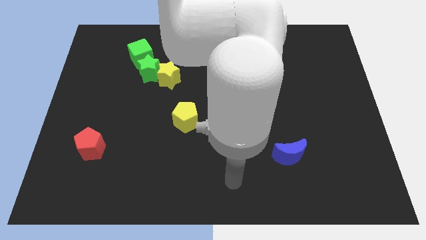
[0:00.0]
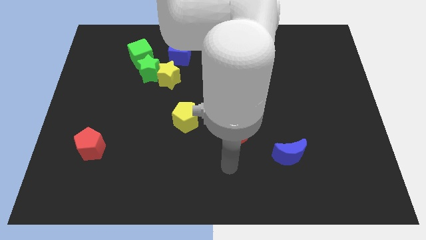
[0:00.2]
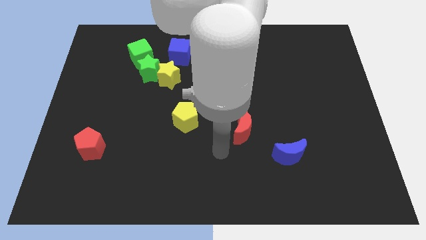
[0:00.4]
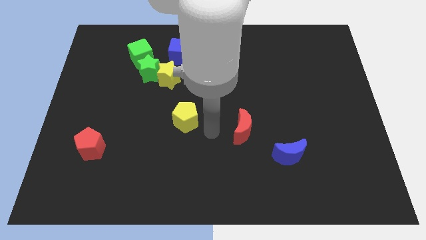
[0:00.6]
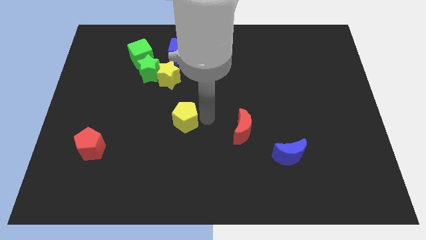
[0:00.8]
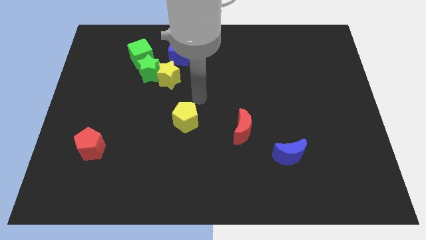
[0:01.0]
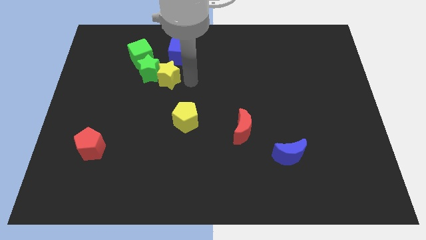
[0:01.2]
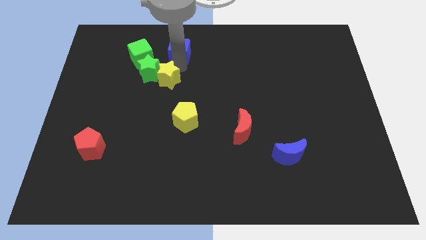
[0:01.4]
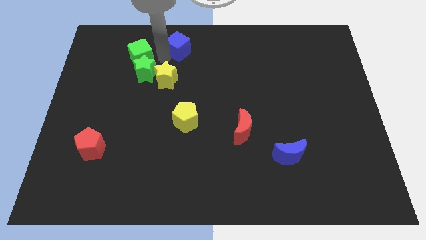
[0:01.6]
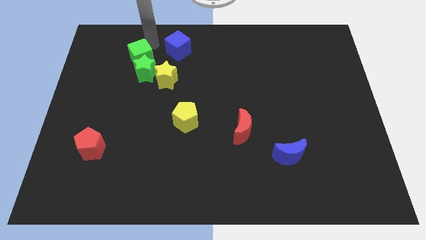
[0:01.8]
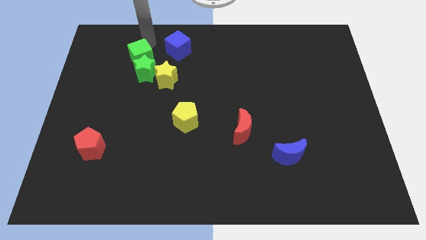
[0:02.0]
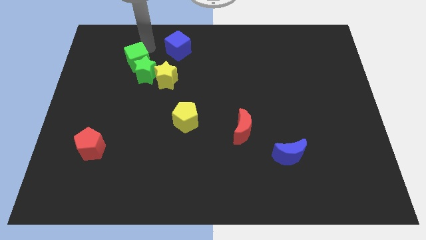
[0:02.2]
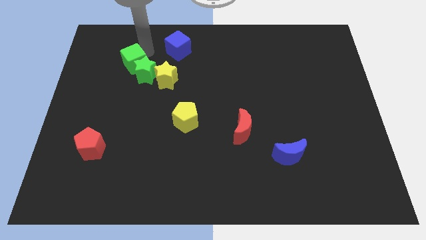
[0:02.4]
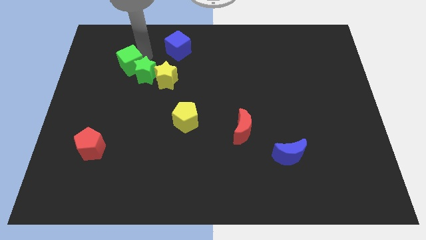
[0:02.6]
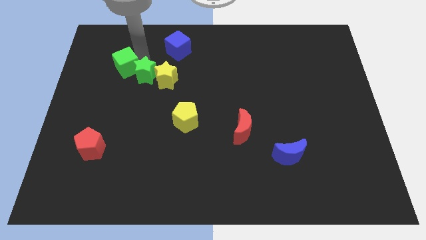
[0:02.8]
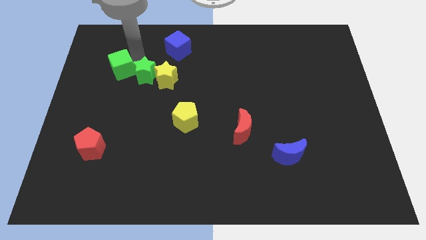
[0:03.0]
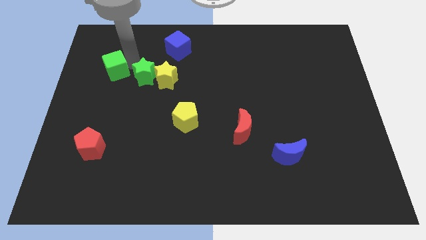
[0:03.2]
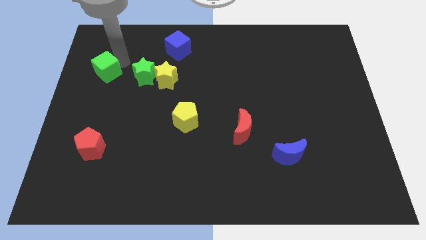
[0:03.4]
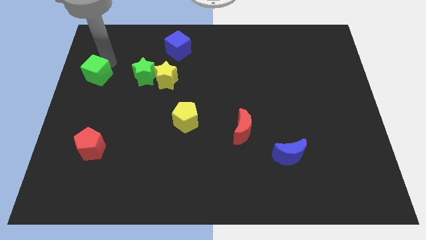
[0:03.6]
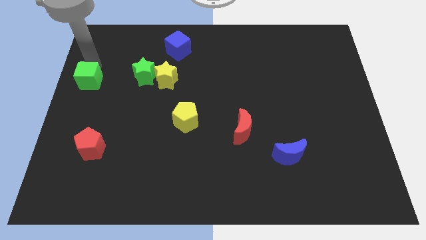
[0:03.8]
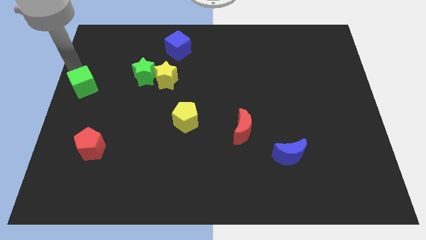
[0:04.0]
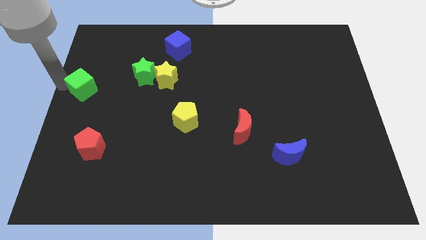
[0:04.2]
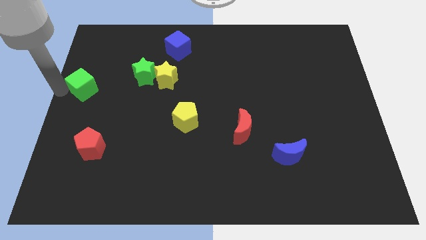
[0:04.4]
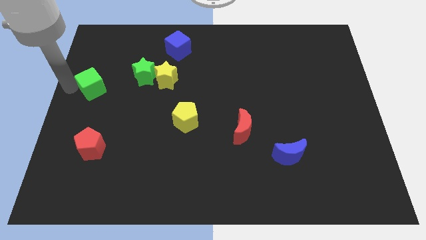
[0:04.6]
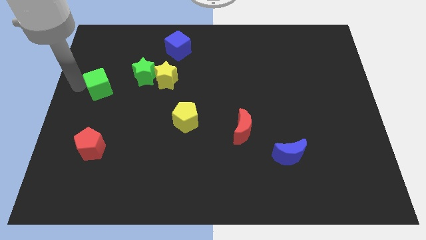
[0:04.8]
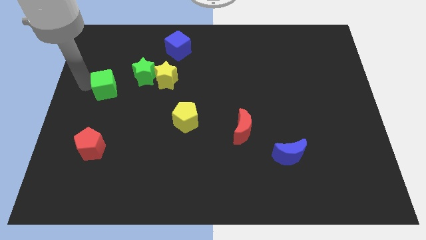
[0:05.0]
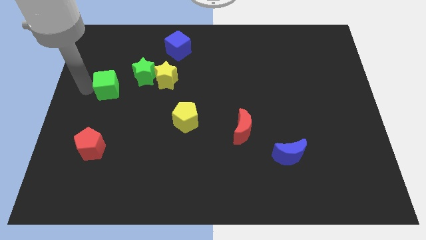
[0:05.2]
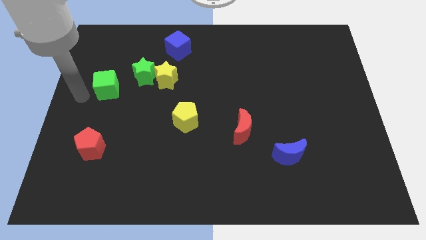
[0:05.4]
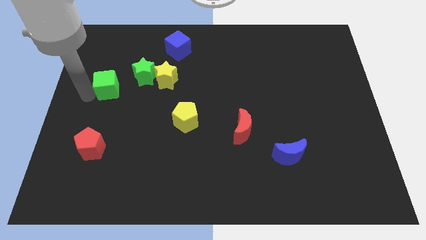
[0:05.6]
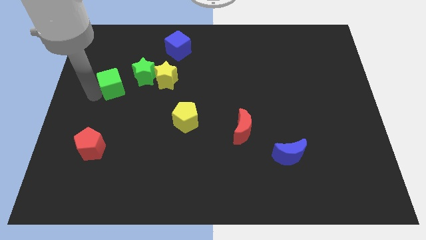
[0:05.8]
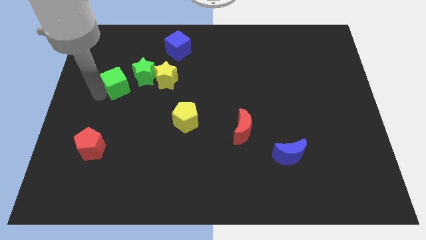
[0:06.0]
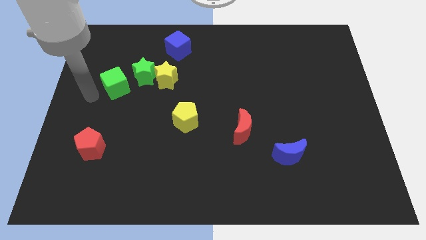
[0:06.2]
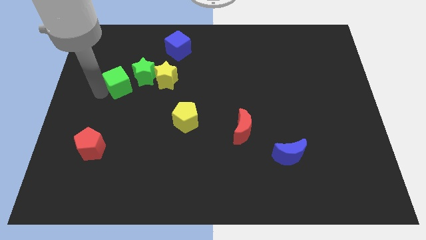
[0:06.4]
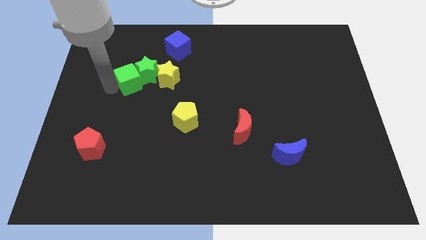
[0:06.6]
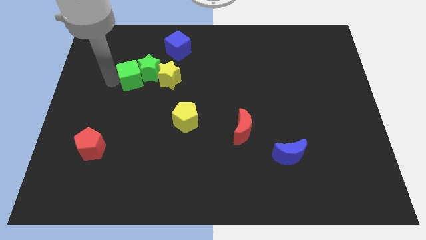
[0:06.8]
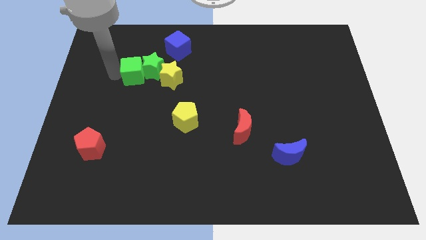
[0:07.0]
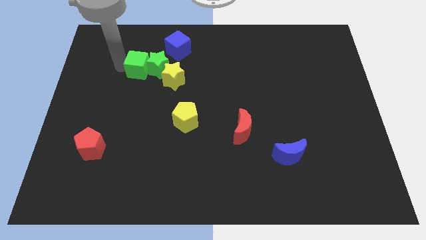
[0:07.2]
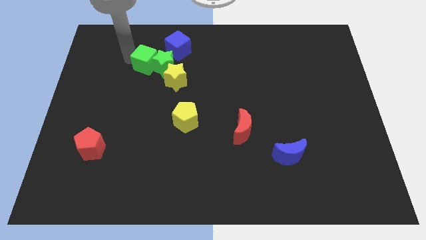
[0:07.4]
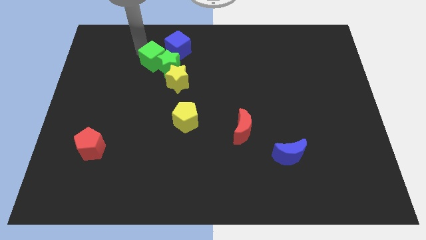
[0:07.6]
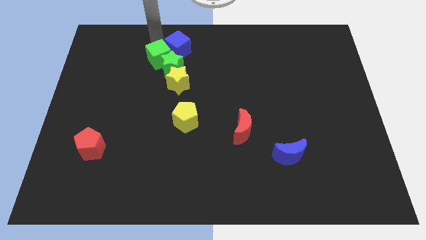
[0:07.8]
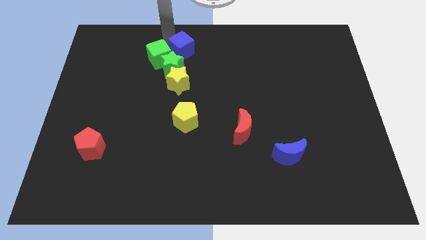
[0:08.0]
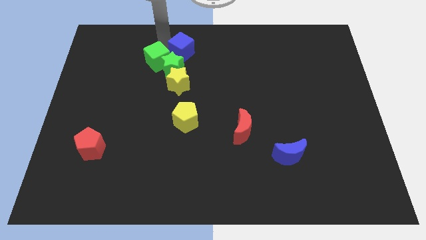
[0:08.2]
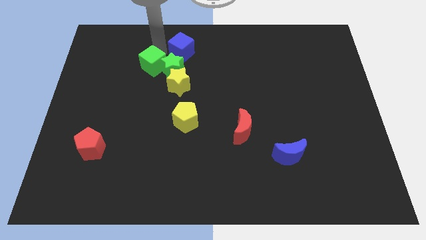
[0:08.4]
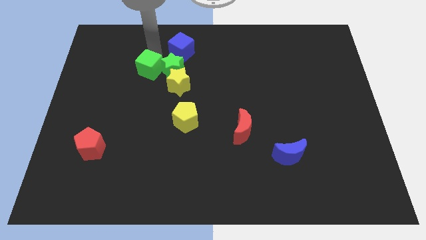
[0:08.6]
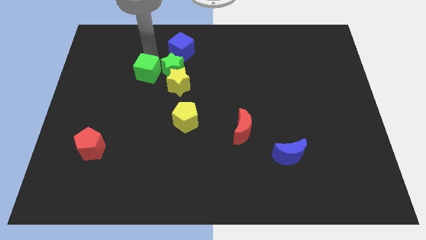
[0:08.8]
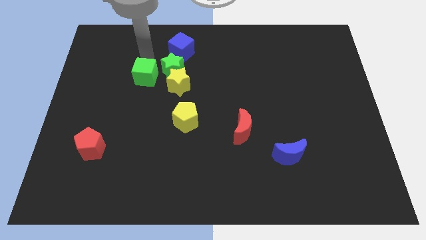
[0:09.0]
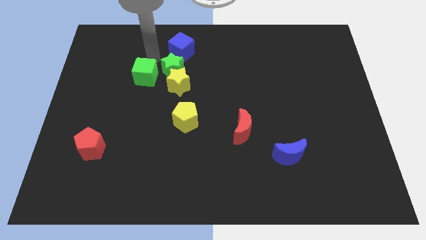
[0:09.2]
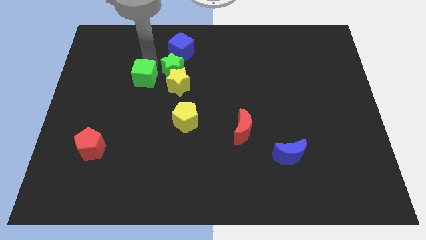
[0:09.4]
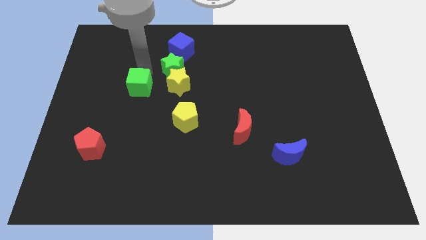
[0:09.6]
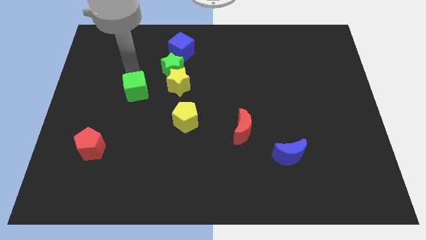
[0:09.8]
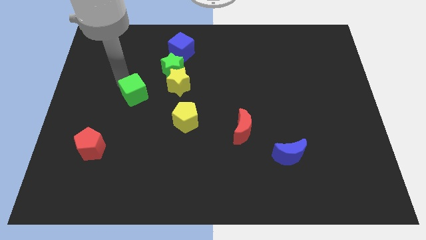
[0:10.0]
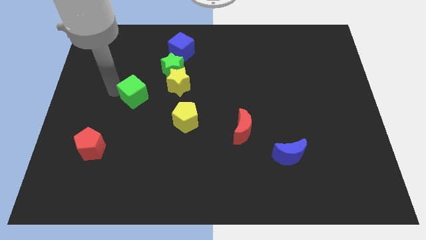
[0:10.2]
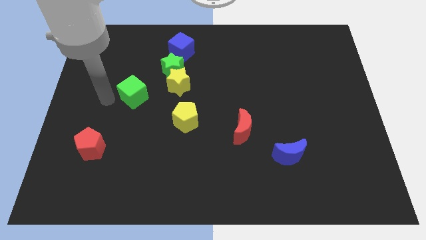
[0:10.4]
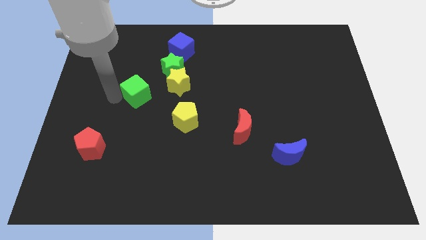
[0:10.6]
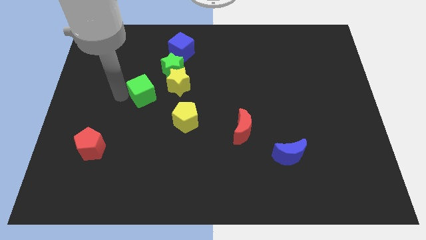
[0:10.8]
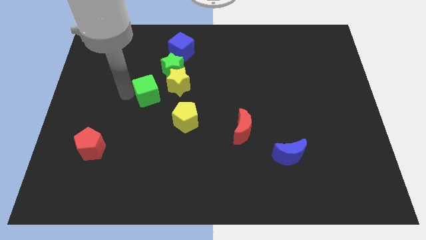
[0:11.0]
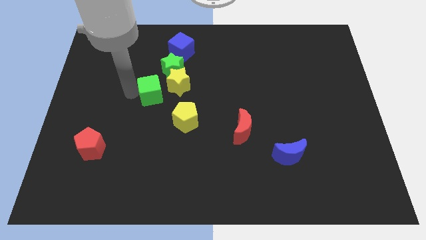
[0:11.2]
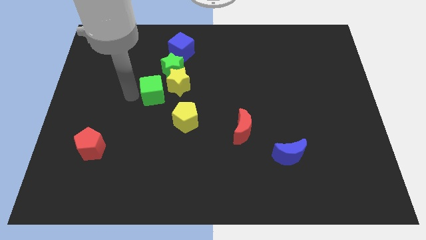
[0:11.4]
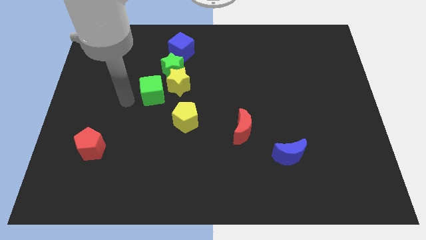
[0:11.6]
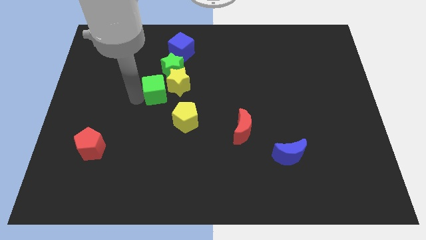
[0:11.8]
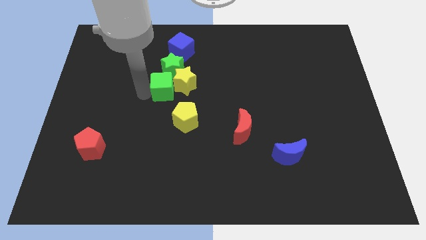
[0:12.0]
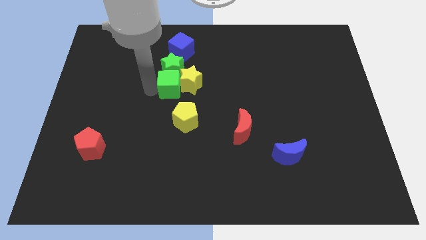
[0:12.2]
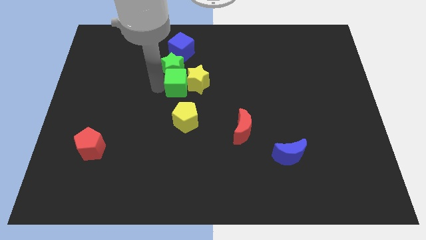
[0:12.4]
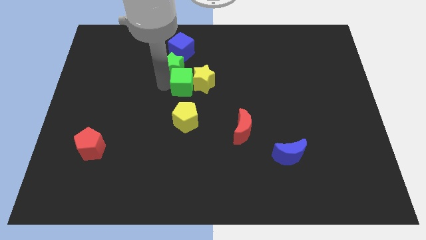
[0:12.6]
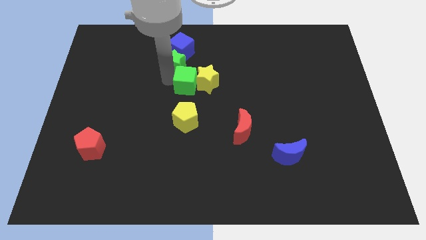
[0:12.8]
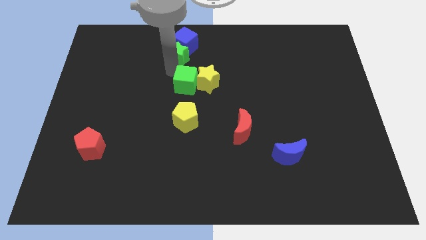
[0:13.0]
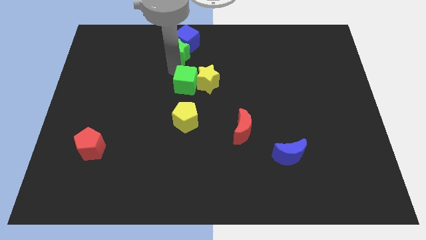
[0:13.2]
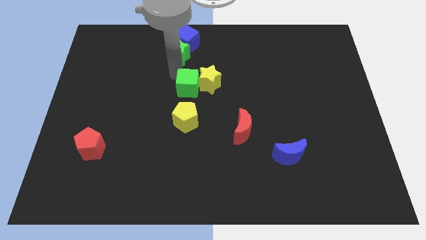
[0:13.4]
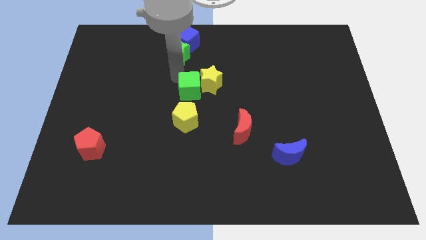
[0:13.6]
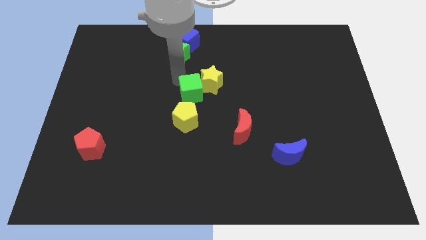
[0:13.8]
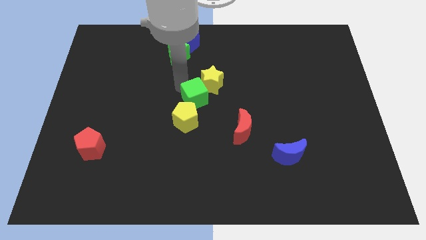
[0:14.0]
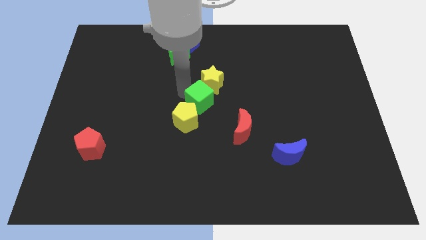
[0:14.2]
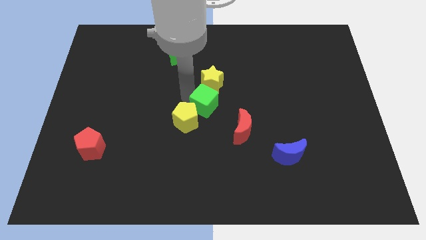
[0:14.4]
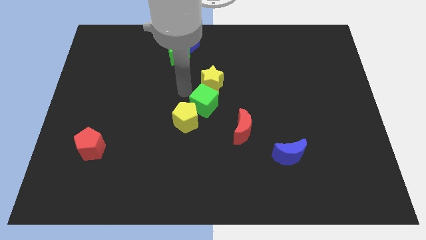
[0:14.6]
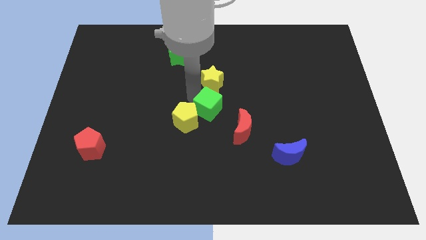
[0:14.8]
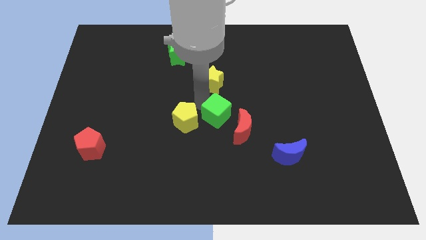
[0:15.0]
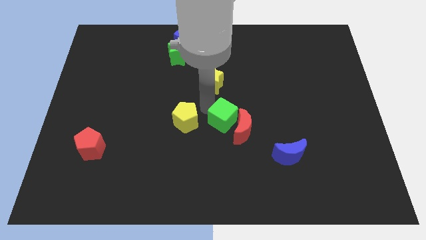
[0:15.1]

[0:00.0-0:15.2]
move the green cube next to the red moon
